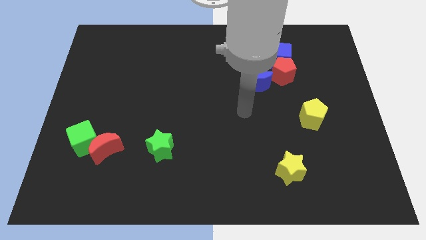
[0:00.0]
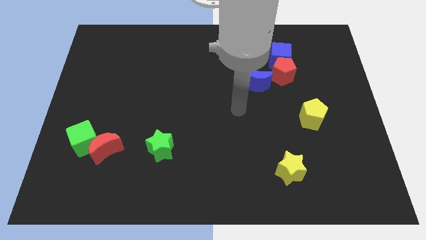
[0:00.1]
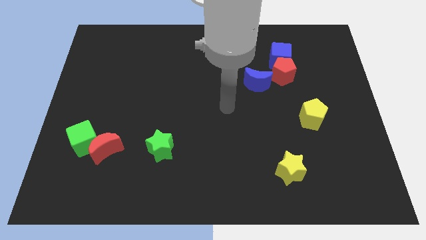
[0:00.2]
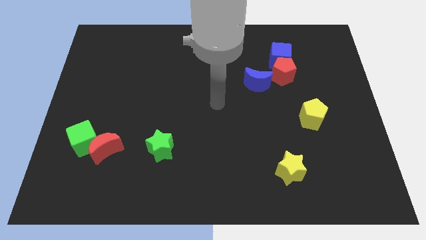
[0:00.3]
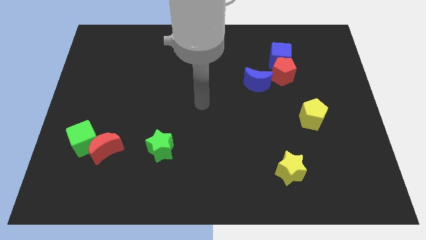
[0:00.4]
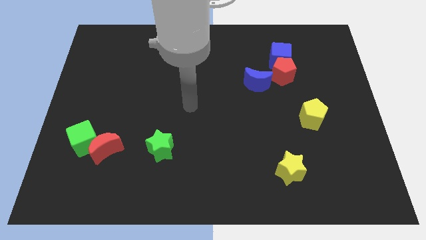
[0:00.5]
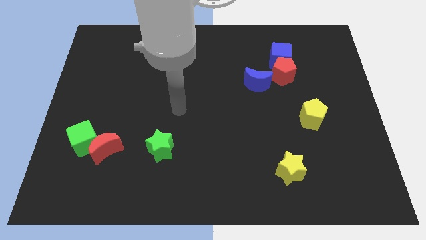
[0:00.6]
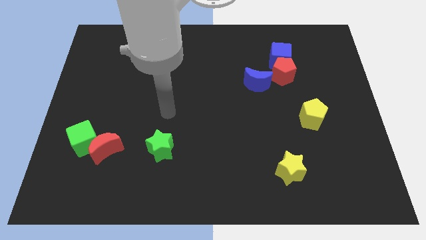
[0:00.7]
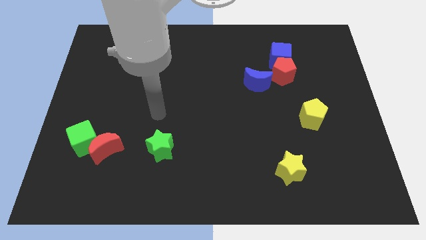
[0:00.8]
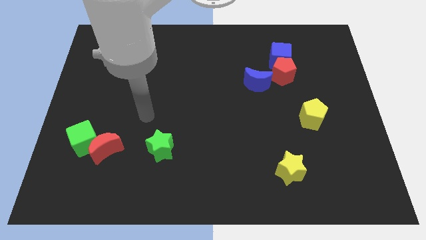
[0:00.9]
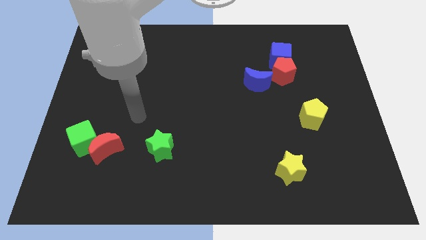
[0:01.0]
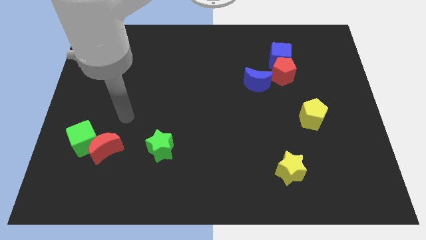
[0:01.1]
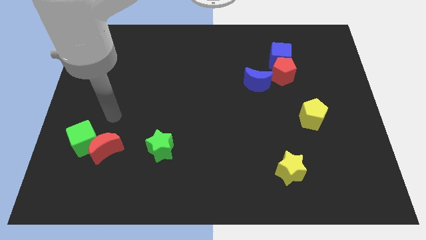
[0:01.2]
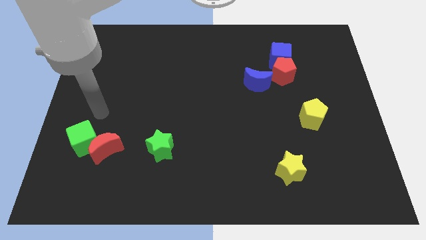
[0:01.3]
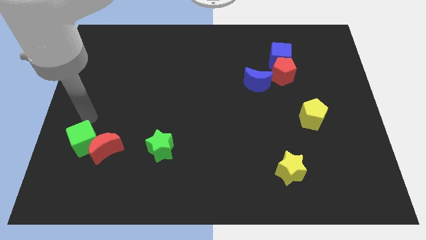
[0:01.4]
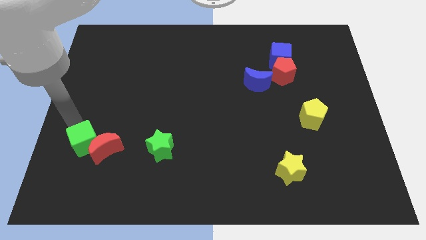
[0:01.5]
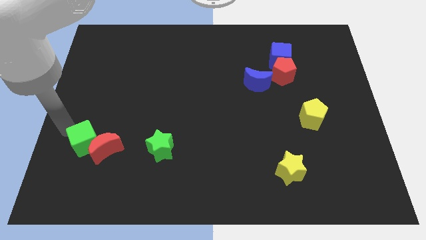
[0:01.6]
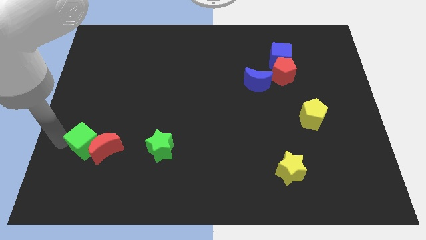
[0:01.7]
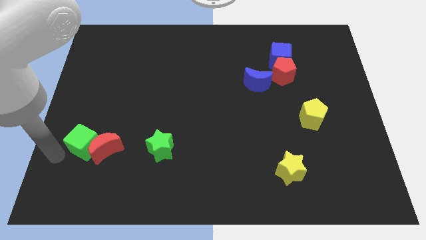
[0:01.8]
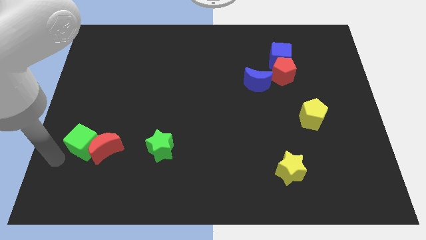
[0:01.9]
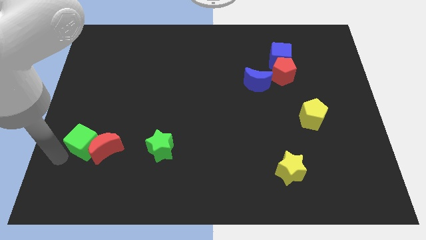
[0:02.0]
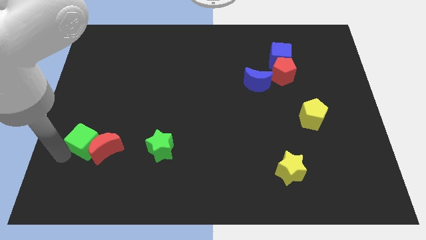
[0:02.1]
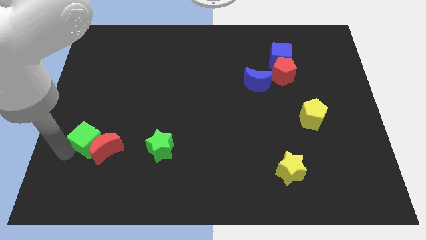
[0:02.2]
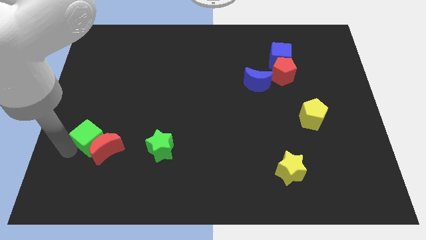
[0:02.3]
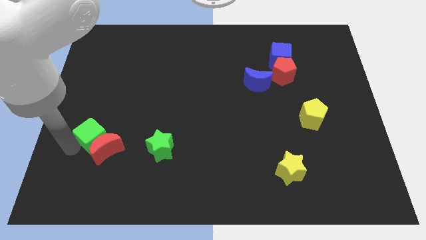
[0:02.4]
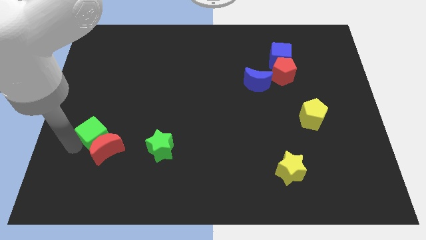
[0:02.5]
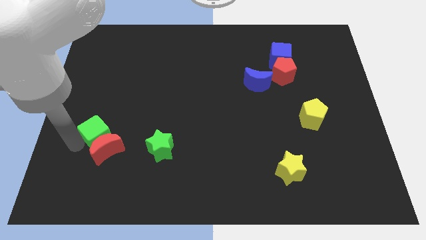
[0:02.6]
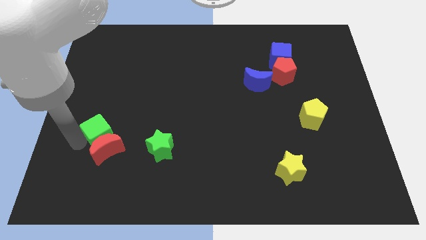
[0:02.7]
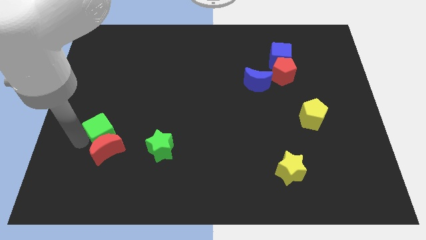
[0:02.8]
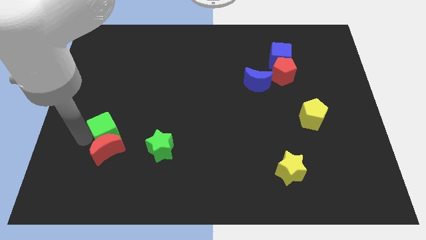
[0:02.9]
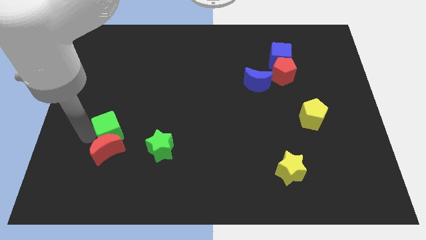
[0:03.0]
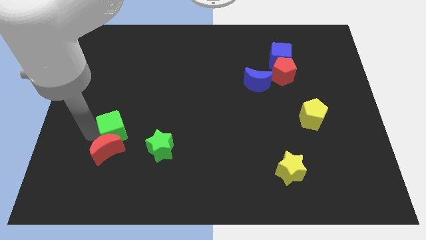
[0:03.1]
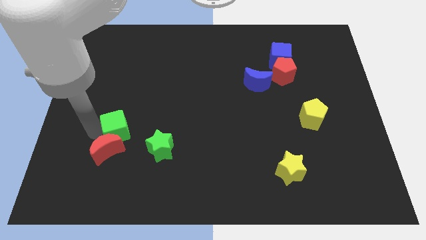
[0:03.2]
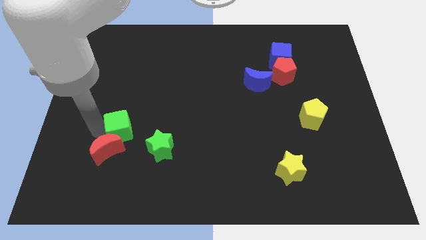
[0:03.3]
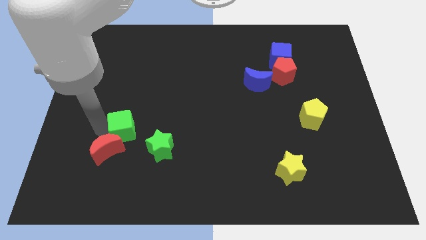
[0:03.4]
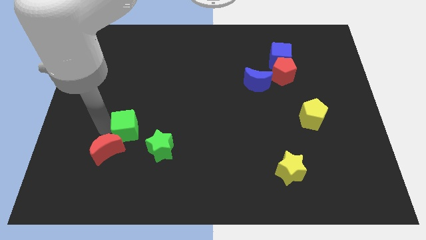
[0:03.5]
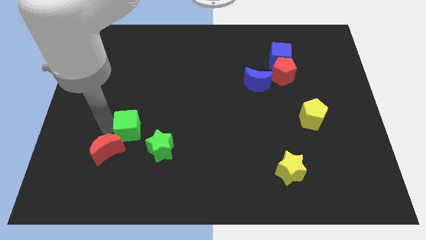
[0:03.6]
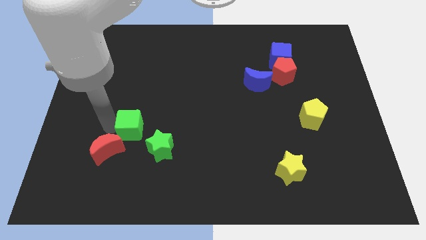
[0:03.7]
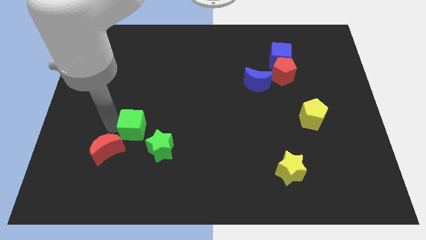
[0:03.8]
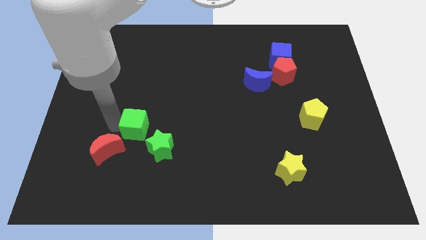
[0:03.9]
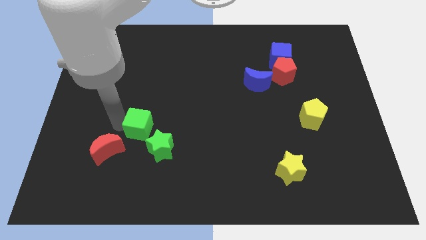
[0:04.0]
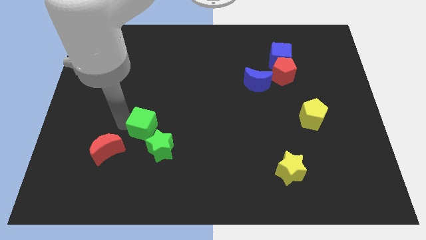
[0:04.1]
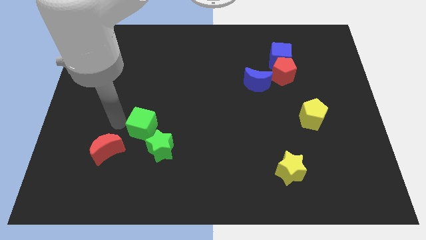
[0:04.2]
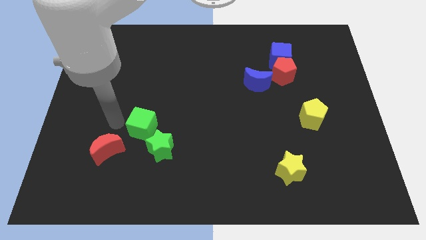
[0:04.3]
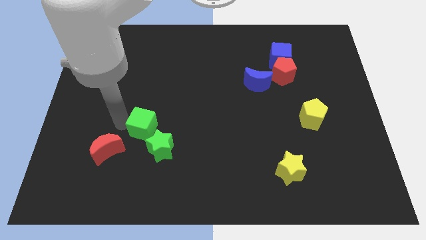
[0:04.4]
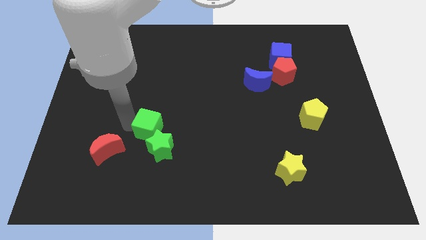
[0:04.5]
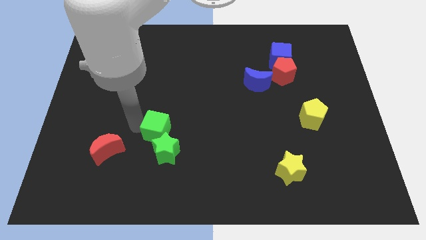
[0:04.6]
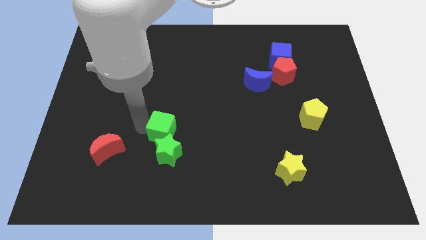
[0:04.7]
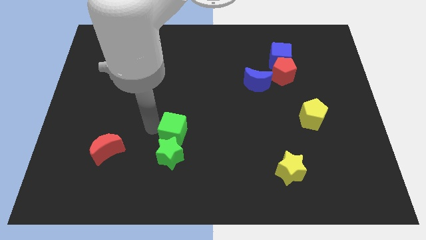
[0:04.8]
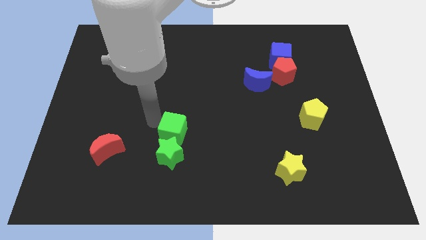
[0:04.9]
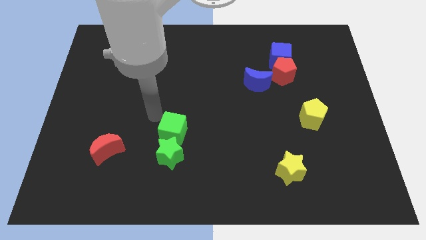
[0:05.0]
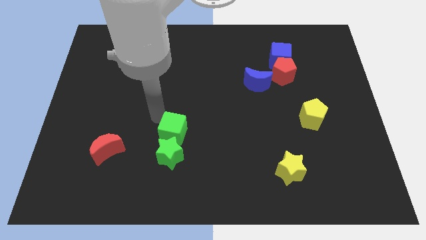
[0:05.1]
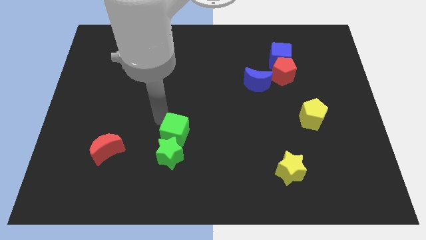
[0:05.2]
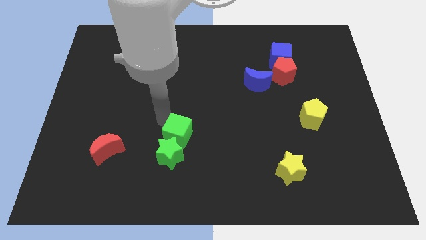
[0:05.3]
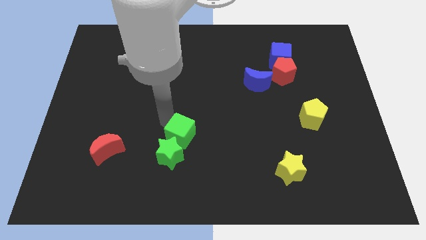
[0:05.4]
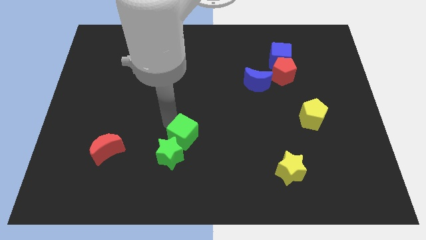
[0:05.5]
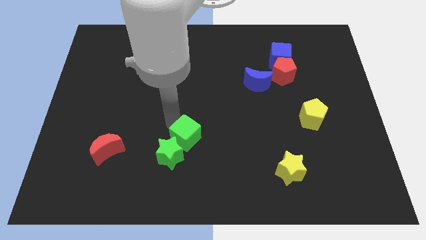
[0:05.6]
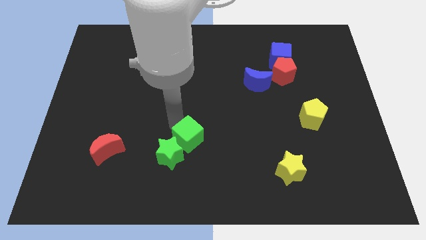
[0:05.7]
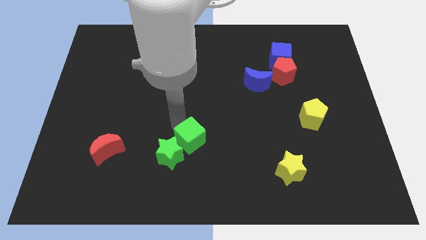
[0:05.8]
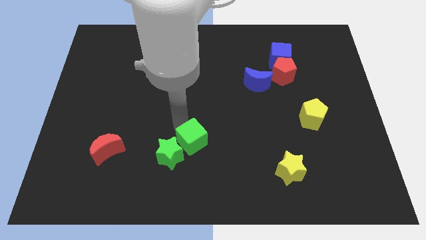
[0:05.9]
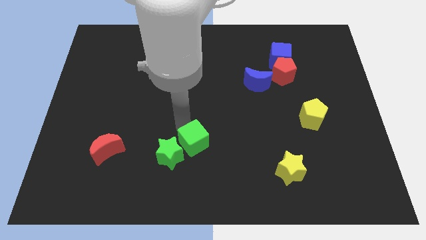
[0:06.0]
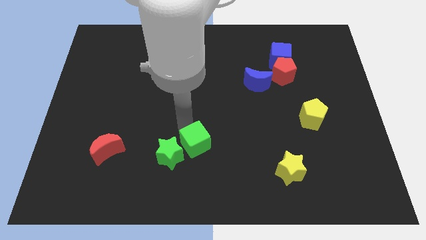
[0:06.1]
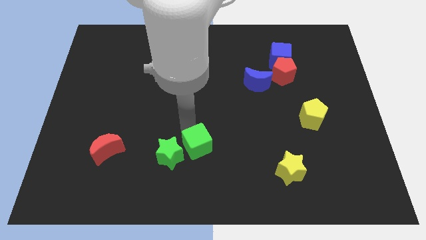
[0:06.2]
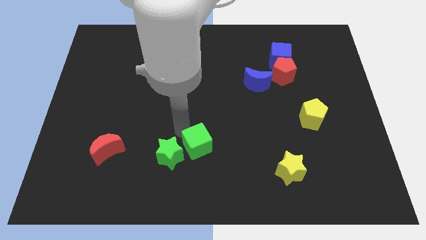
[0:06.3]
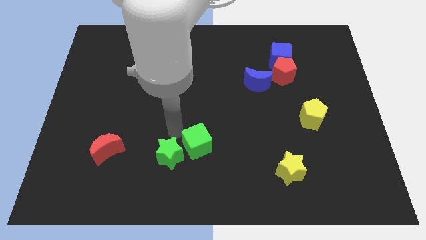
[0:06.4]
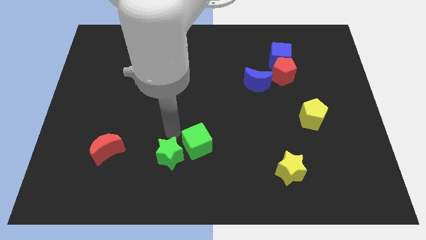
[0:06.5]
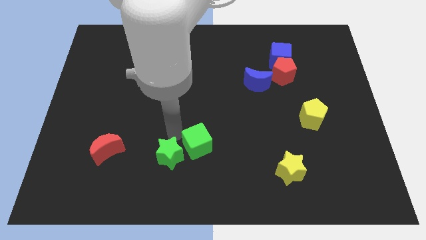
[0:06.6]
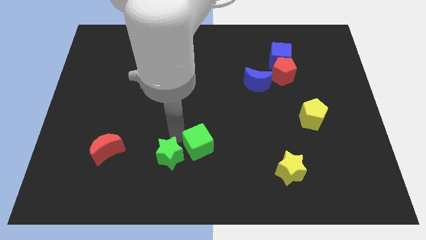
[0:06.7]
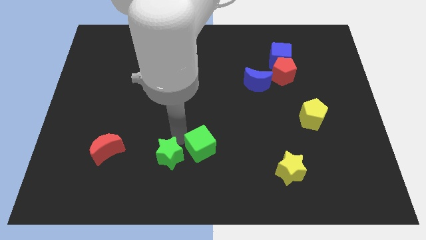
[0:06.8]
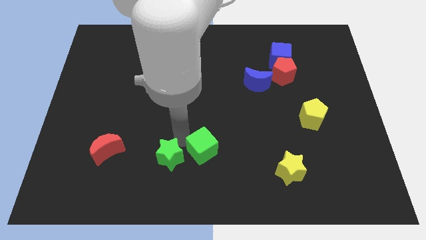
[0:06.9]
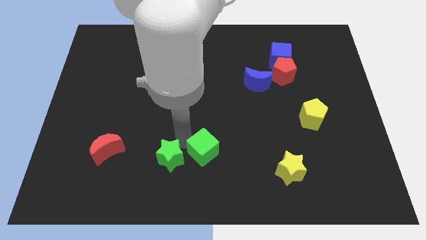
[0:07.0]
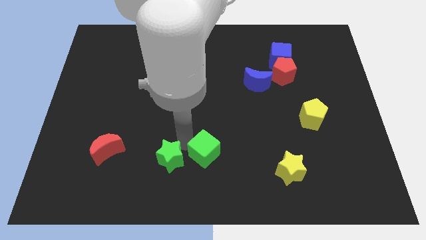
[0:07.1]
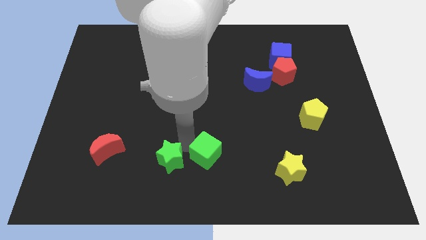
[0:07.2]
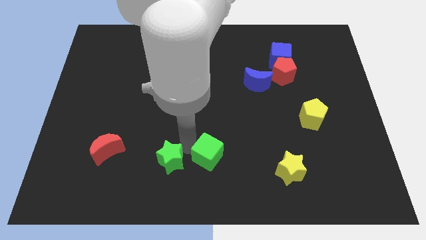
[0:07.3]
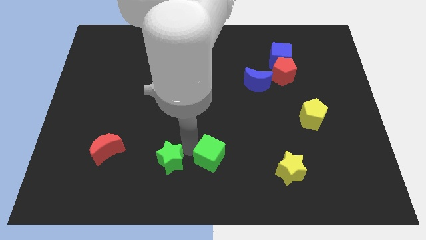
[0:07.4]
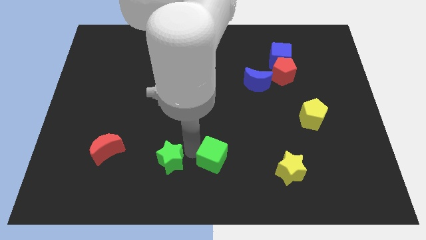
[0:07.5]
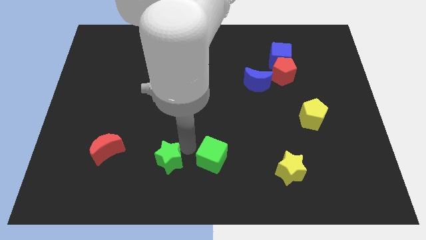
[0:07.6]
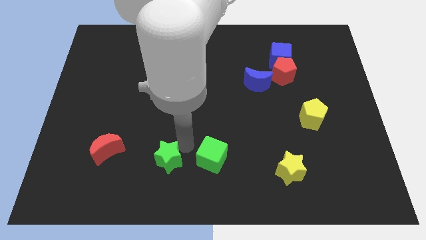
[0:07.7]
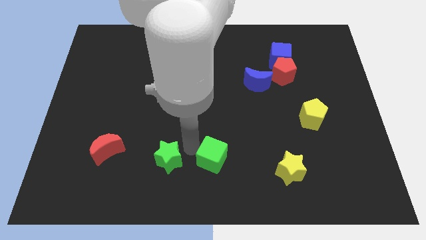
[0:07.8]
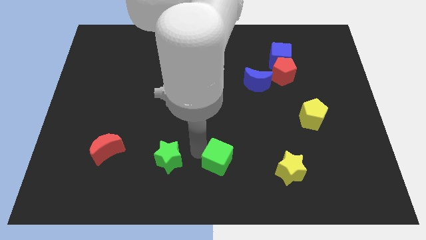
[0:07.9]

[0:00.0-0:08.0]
push the green cube just left of the yellow star
